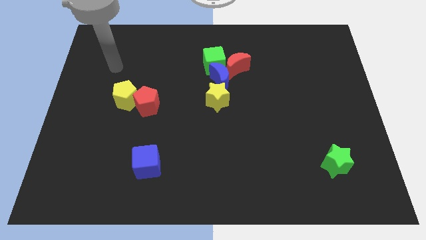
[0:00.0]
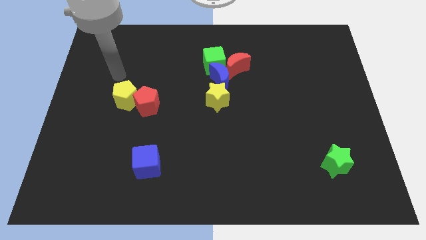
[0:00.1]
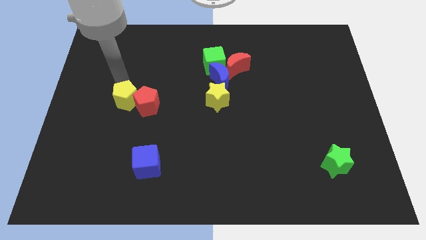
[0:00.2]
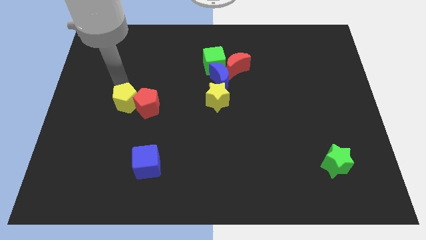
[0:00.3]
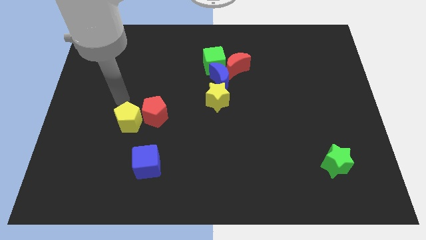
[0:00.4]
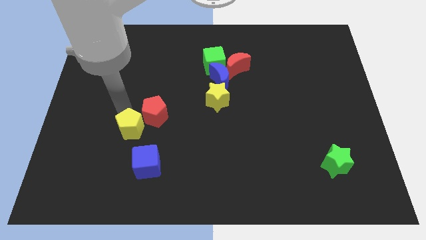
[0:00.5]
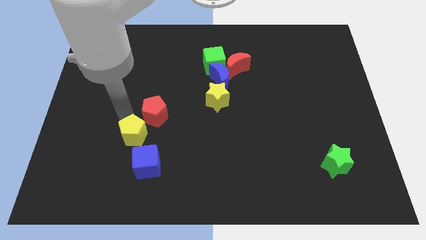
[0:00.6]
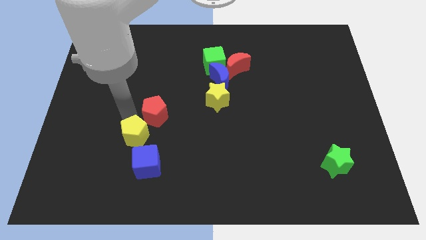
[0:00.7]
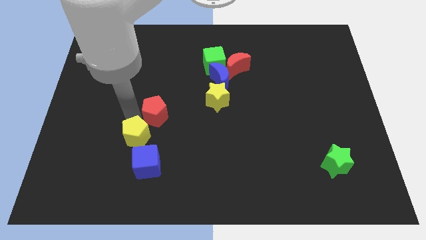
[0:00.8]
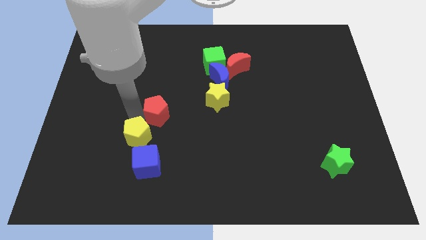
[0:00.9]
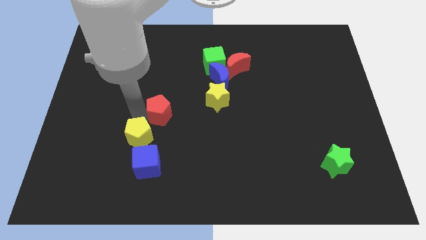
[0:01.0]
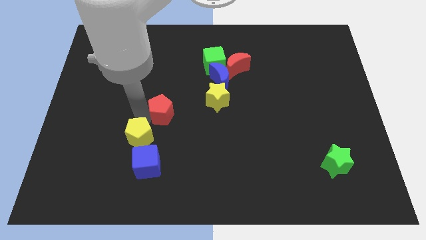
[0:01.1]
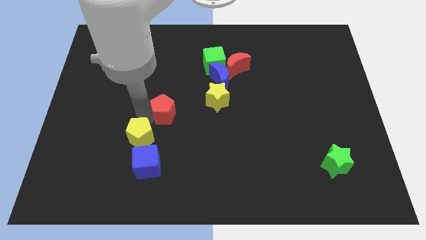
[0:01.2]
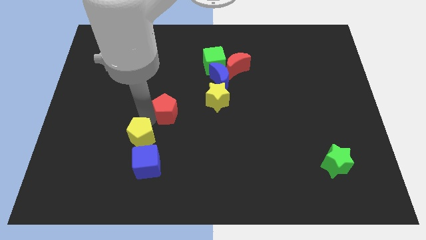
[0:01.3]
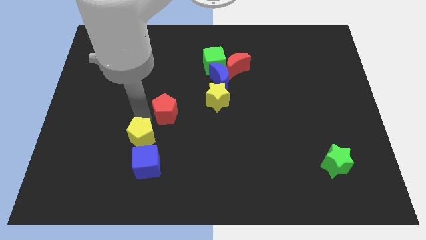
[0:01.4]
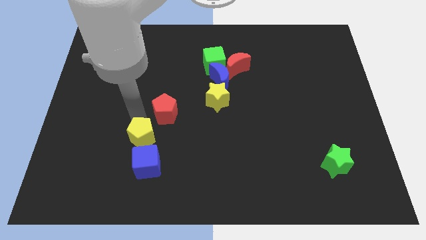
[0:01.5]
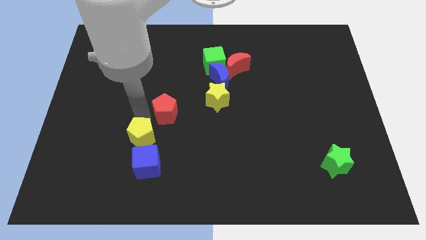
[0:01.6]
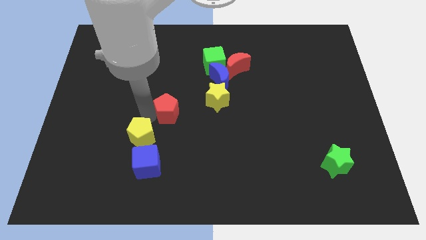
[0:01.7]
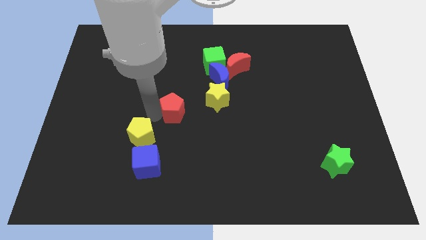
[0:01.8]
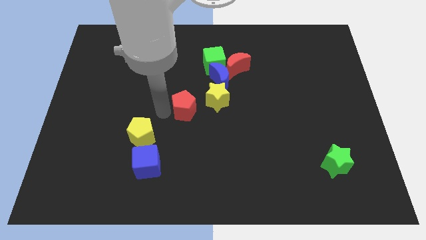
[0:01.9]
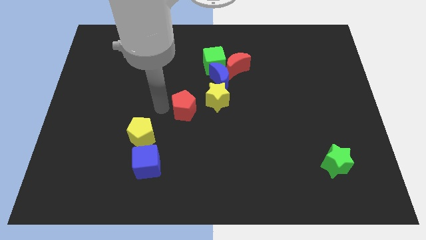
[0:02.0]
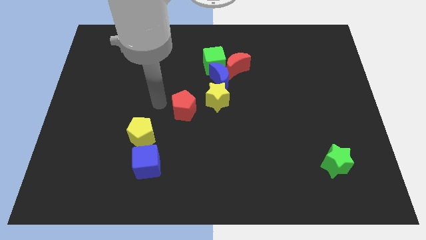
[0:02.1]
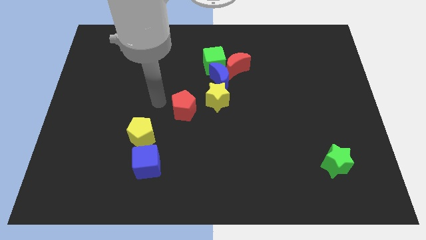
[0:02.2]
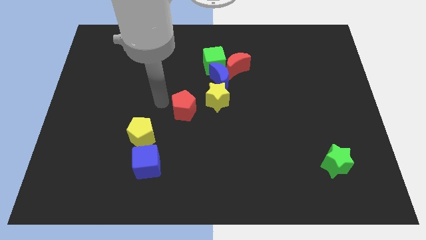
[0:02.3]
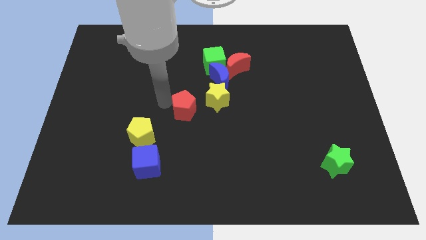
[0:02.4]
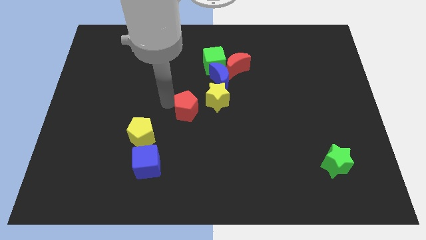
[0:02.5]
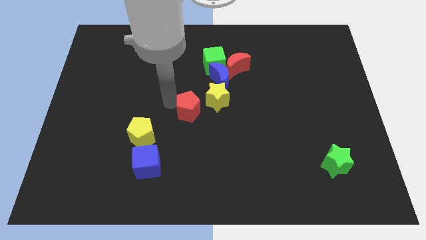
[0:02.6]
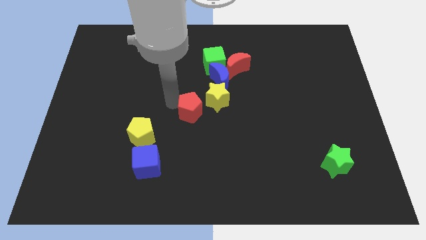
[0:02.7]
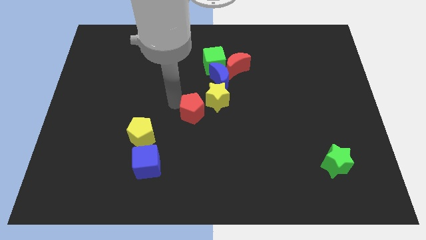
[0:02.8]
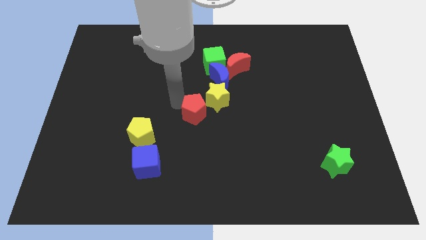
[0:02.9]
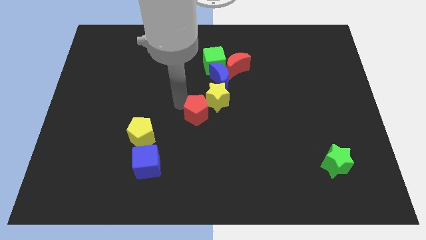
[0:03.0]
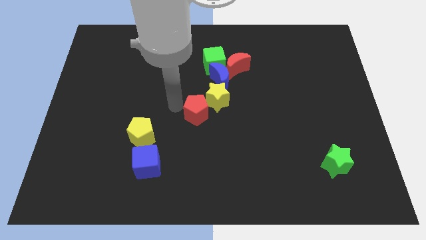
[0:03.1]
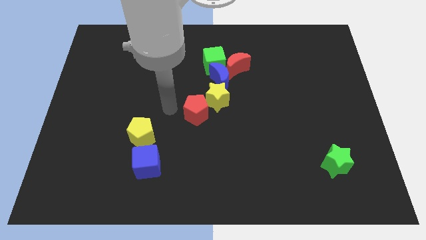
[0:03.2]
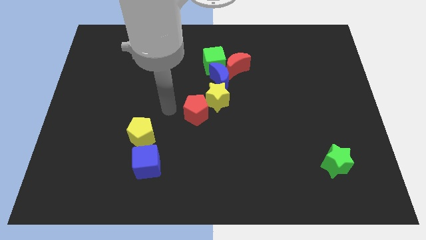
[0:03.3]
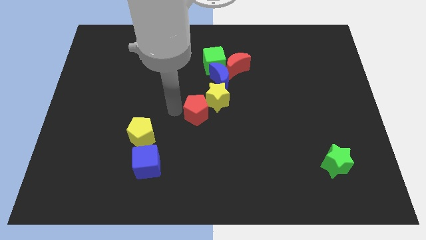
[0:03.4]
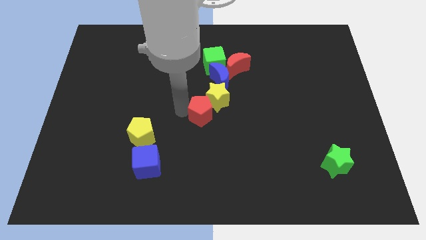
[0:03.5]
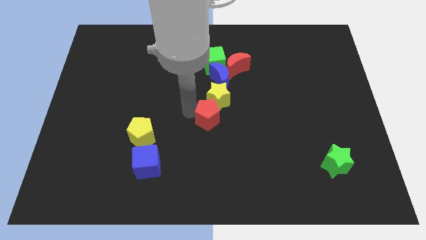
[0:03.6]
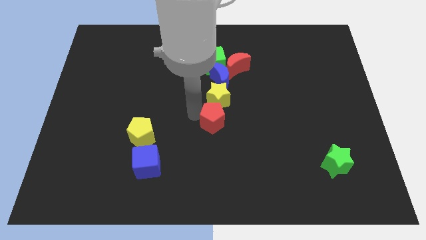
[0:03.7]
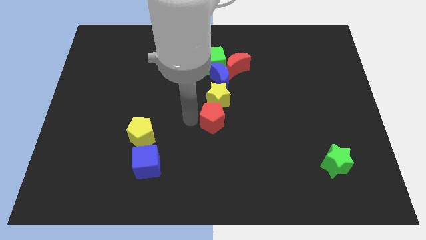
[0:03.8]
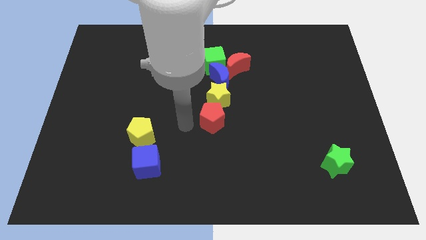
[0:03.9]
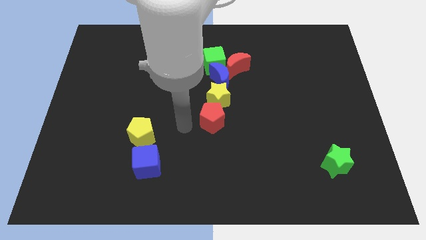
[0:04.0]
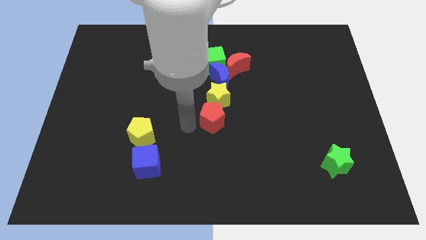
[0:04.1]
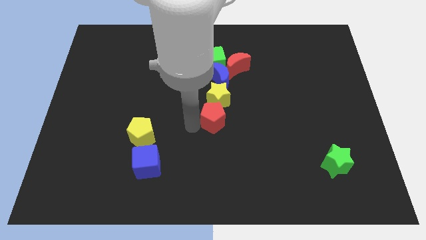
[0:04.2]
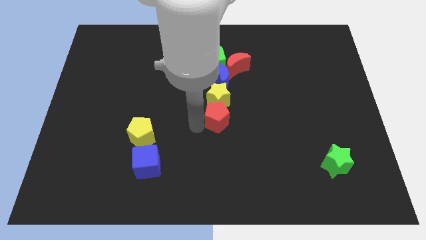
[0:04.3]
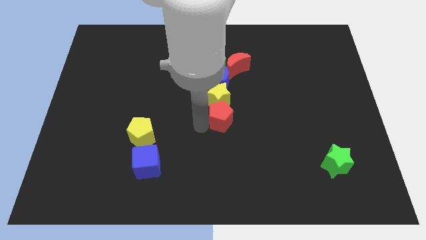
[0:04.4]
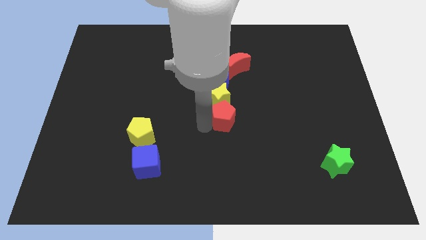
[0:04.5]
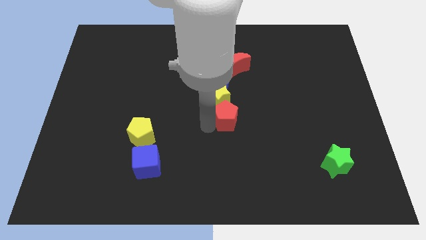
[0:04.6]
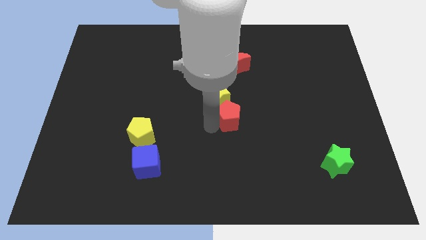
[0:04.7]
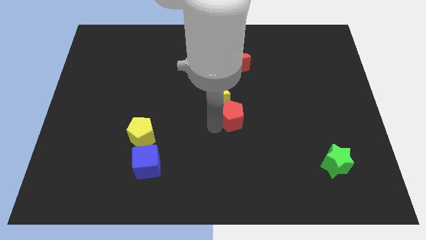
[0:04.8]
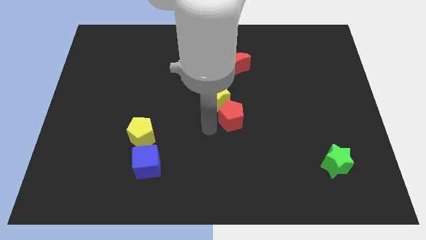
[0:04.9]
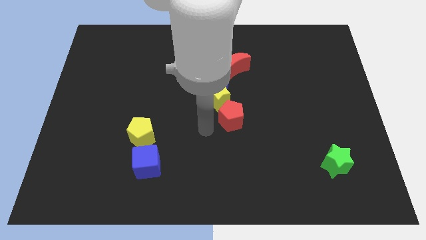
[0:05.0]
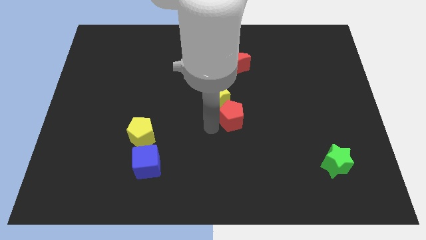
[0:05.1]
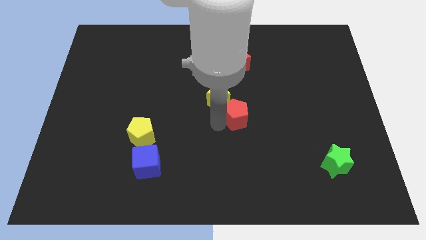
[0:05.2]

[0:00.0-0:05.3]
move the red pentagon to the right

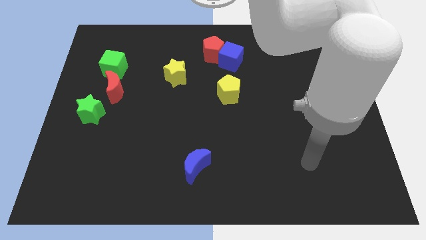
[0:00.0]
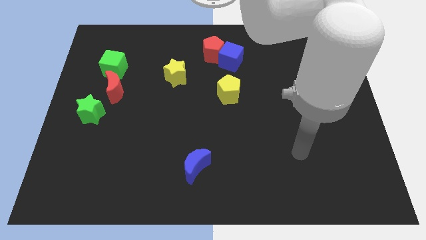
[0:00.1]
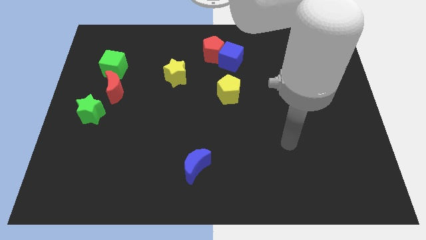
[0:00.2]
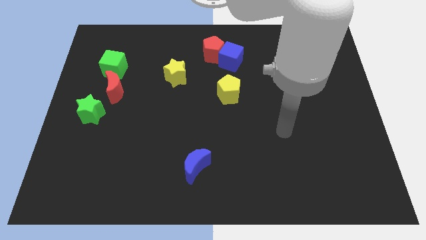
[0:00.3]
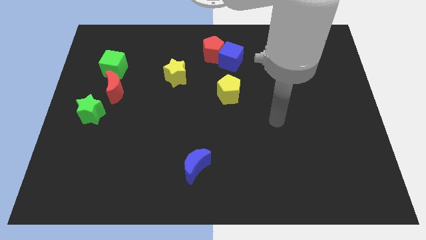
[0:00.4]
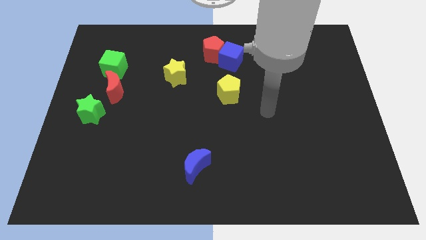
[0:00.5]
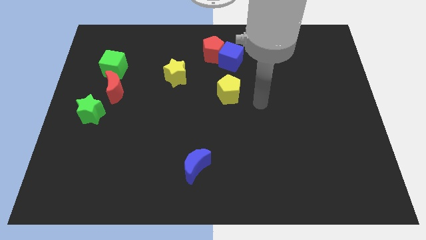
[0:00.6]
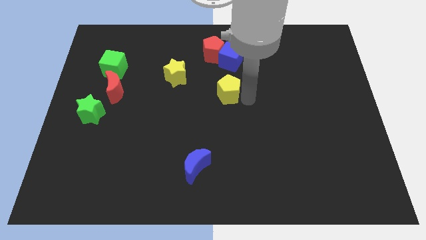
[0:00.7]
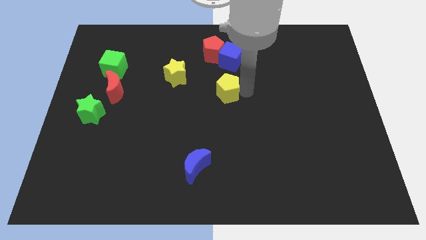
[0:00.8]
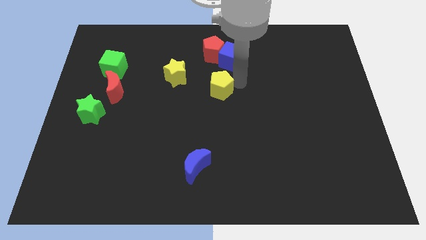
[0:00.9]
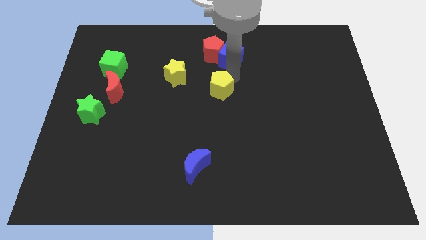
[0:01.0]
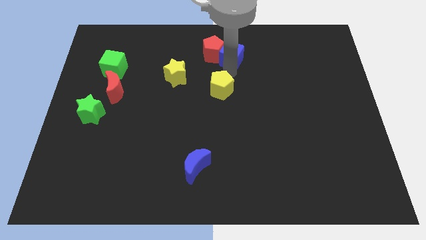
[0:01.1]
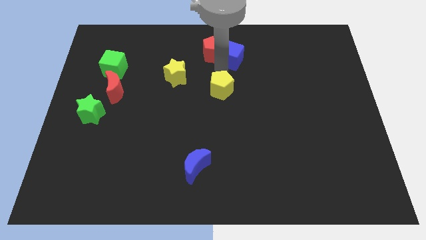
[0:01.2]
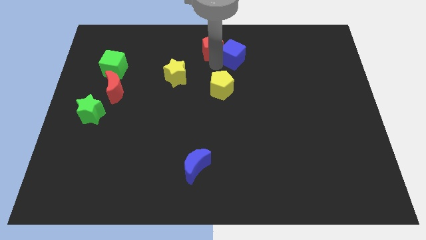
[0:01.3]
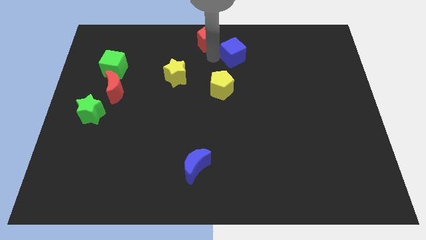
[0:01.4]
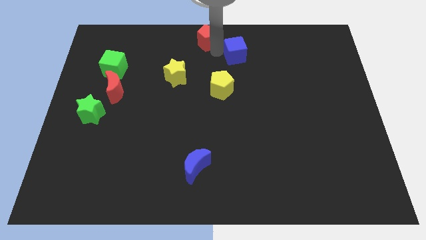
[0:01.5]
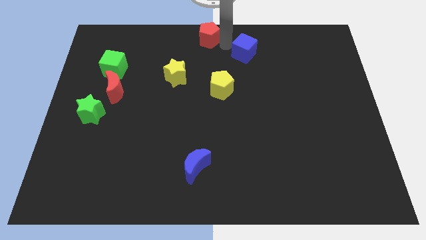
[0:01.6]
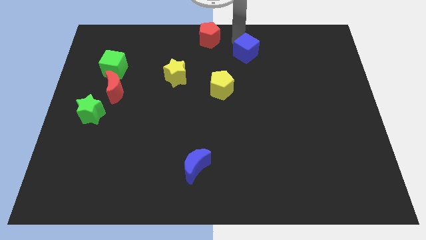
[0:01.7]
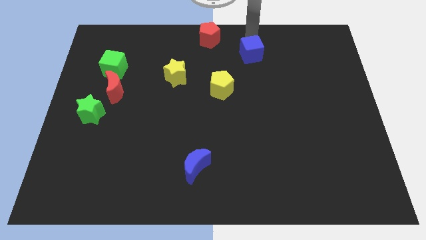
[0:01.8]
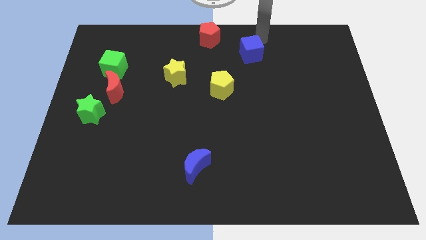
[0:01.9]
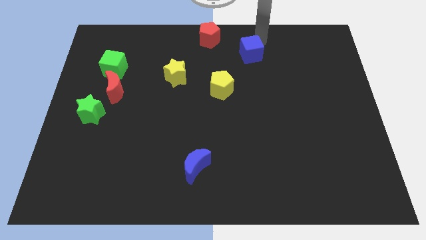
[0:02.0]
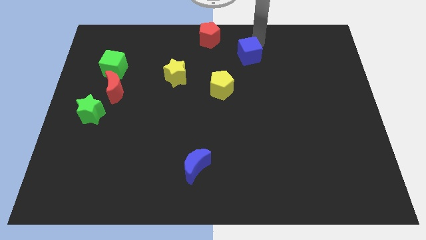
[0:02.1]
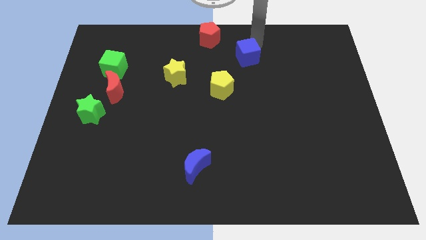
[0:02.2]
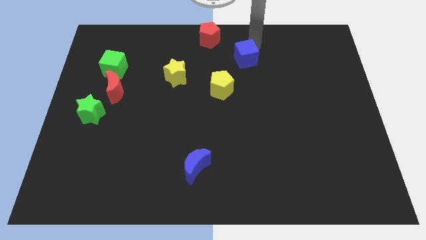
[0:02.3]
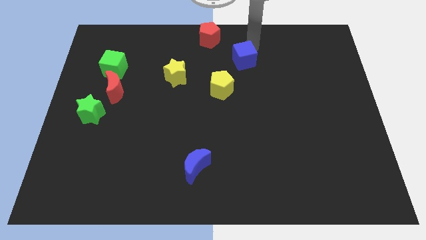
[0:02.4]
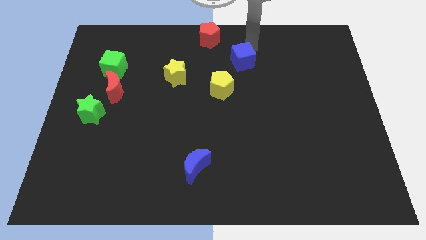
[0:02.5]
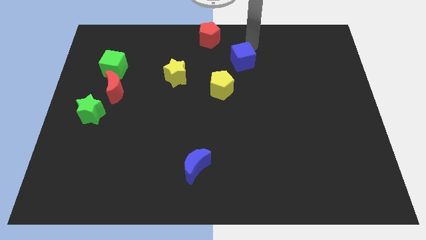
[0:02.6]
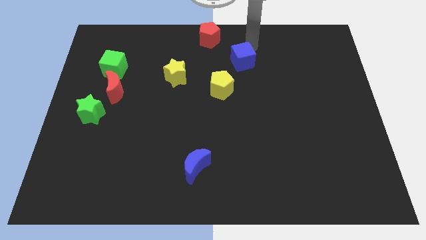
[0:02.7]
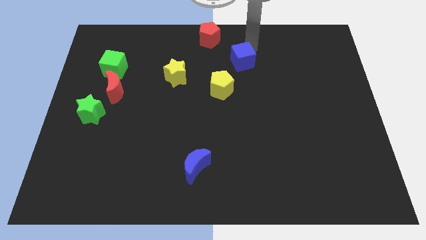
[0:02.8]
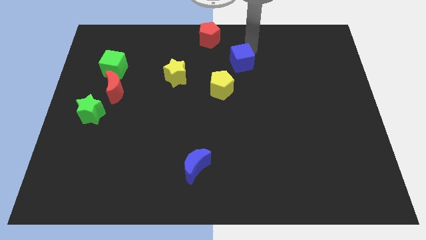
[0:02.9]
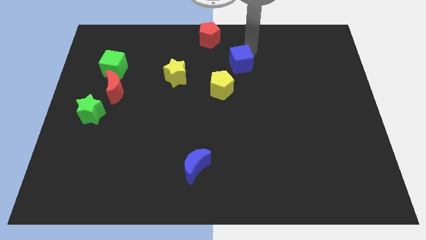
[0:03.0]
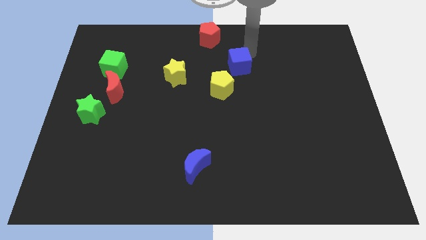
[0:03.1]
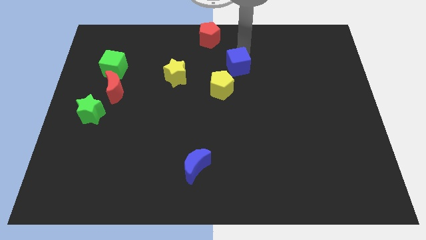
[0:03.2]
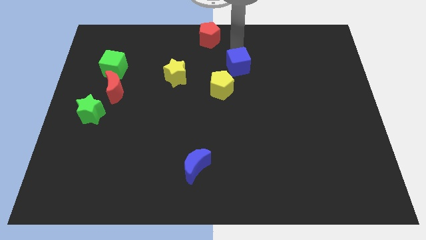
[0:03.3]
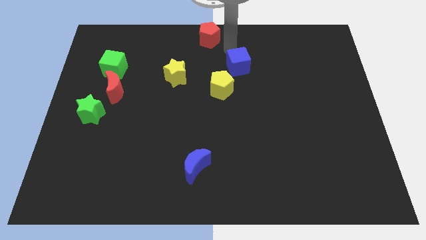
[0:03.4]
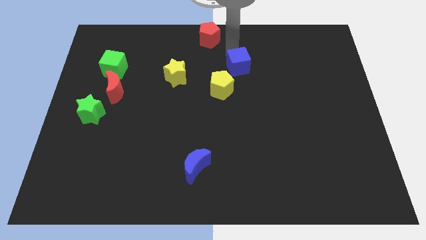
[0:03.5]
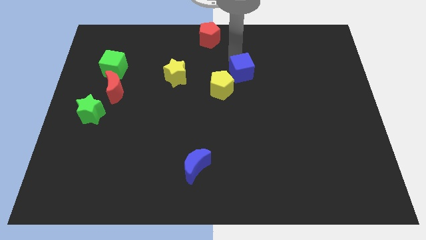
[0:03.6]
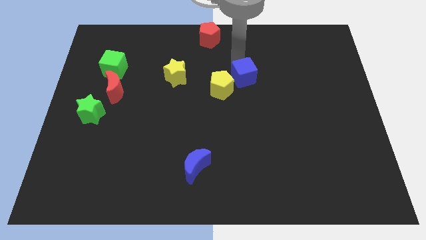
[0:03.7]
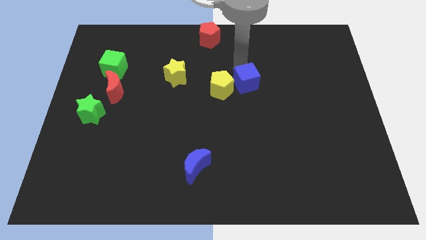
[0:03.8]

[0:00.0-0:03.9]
move the blue cube down a bit
